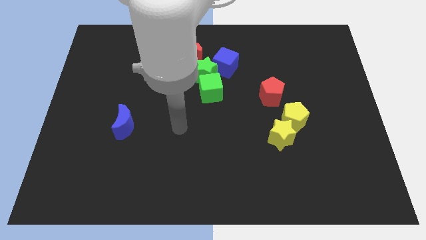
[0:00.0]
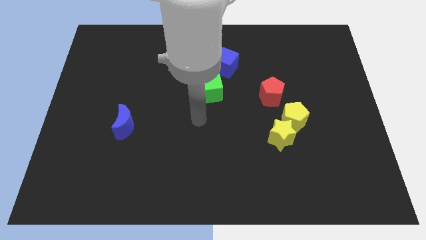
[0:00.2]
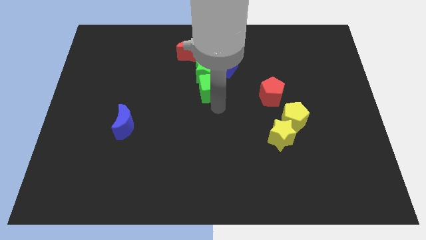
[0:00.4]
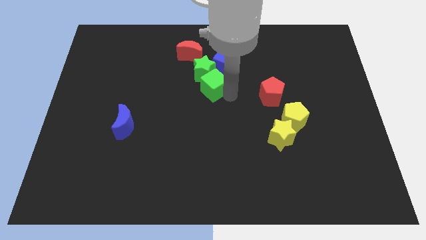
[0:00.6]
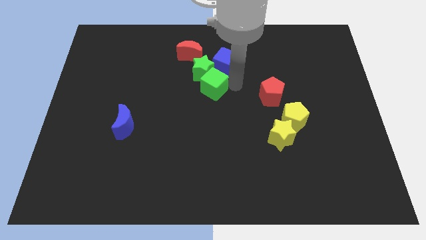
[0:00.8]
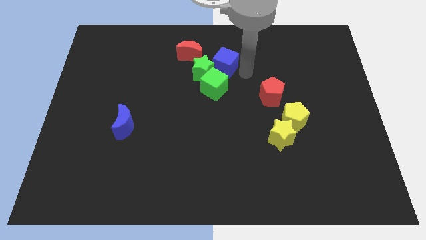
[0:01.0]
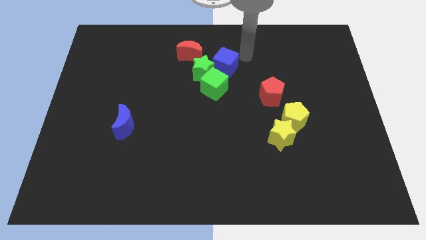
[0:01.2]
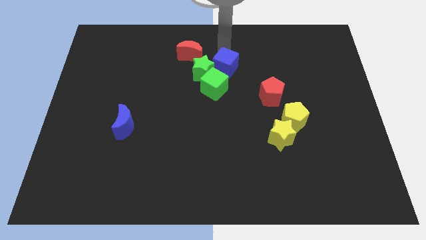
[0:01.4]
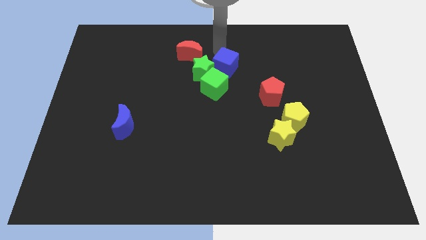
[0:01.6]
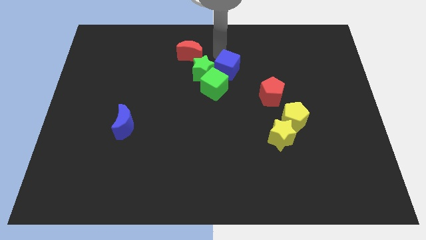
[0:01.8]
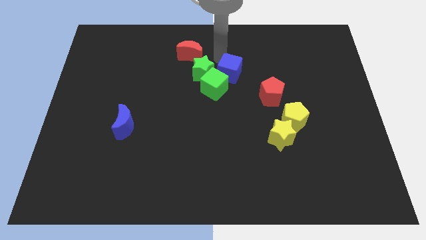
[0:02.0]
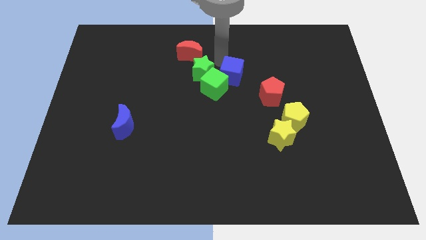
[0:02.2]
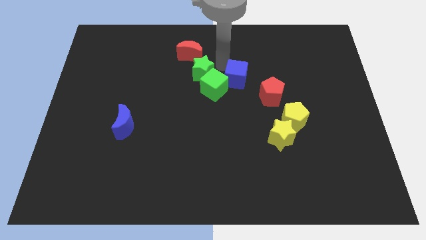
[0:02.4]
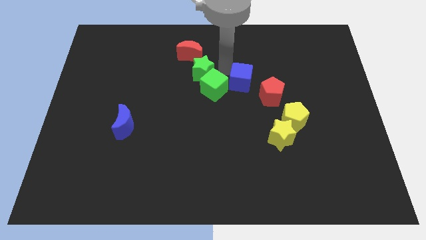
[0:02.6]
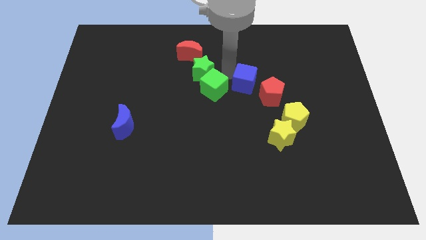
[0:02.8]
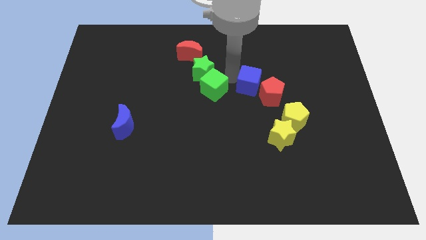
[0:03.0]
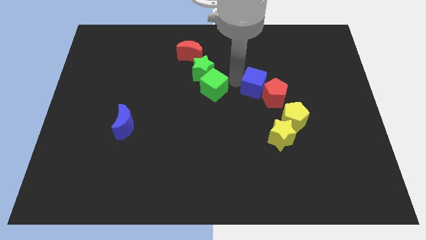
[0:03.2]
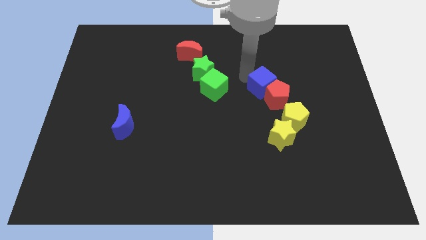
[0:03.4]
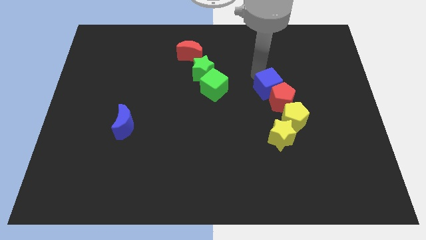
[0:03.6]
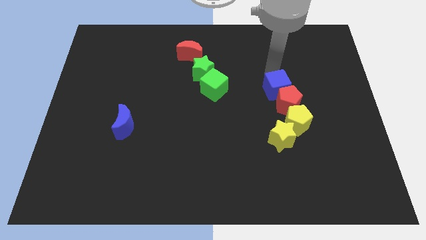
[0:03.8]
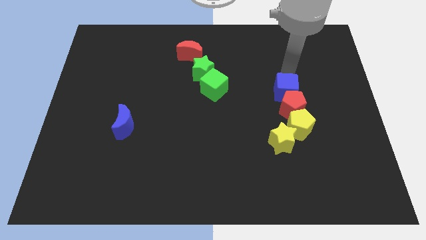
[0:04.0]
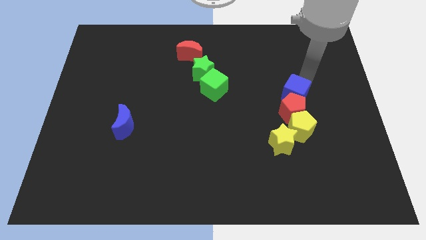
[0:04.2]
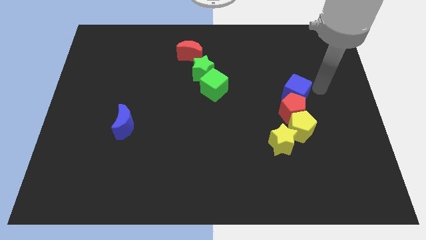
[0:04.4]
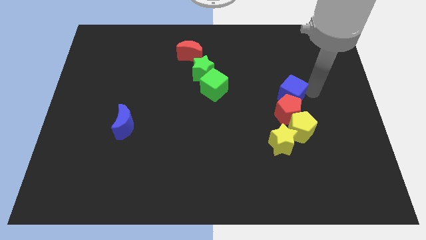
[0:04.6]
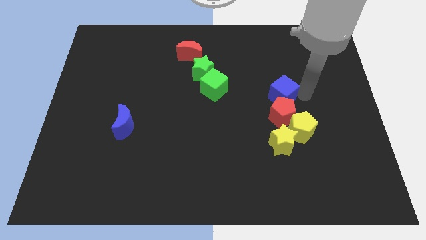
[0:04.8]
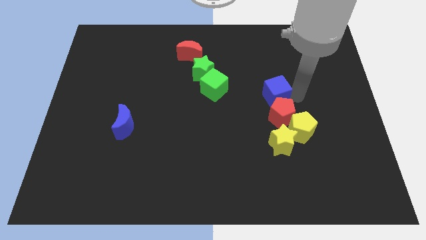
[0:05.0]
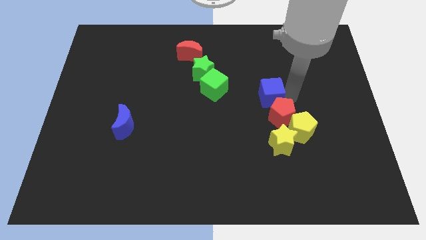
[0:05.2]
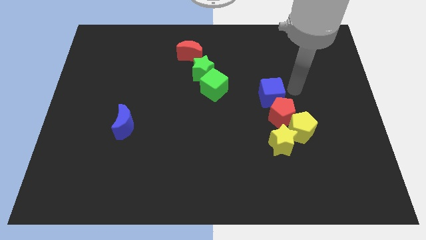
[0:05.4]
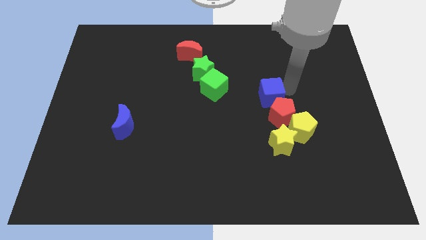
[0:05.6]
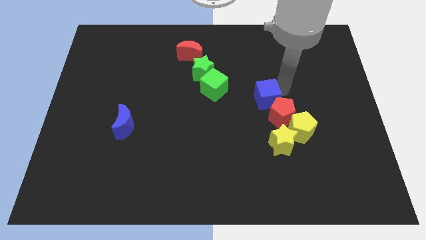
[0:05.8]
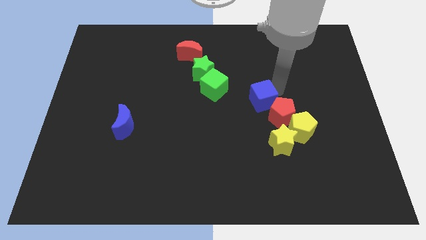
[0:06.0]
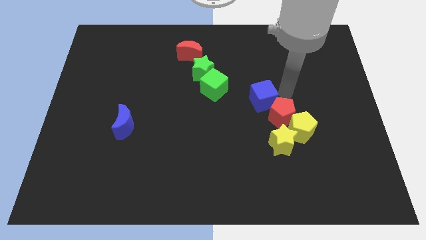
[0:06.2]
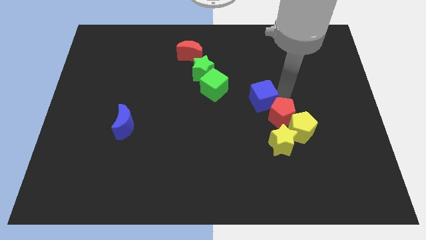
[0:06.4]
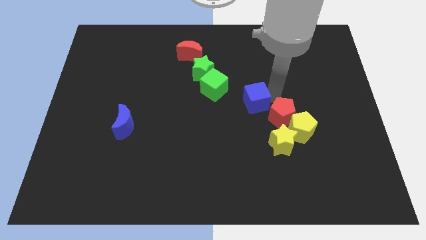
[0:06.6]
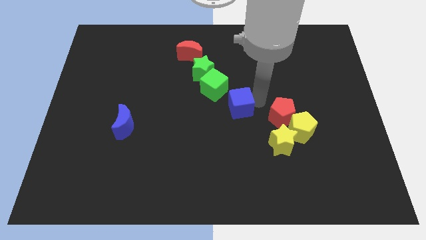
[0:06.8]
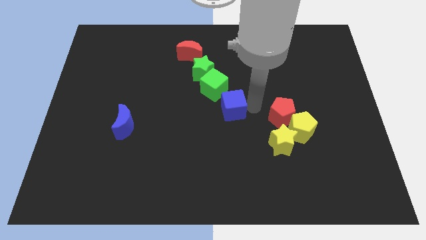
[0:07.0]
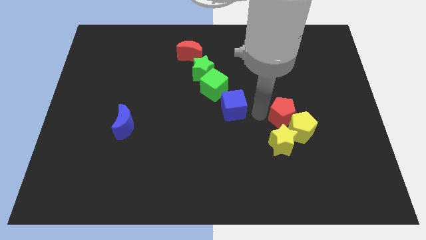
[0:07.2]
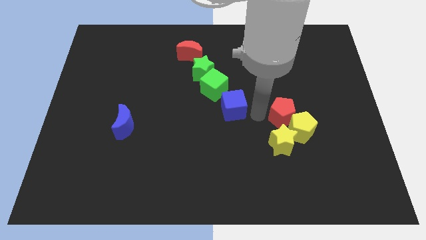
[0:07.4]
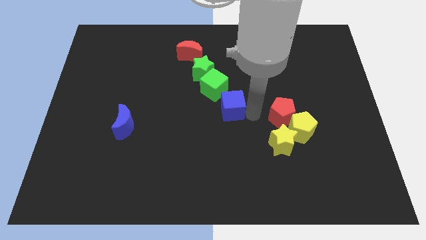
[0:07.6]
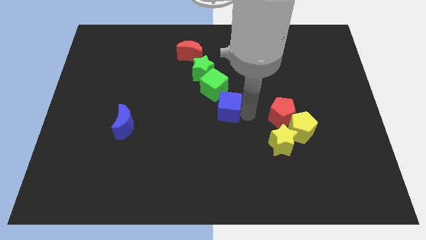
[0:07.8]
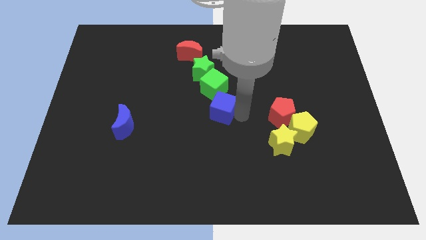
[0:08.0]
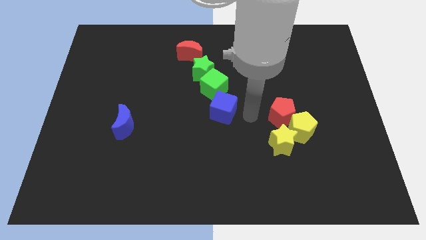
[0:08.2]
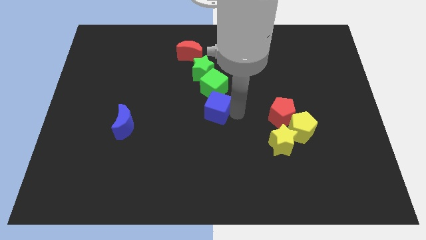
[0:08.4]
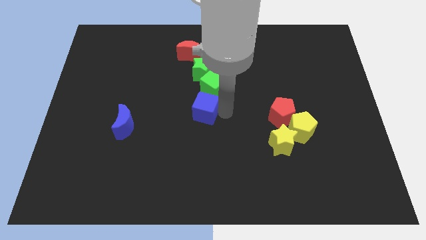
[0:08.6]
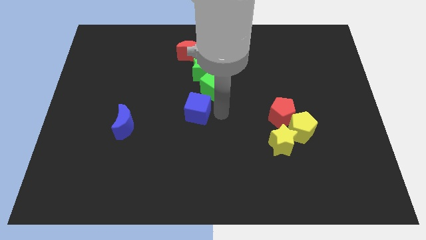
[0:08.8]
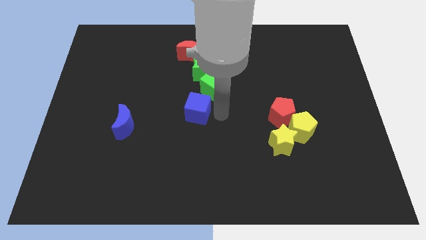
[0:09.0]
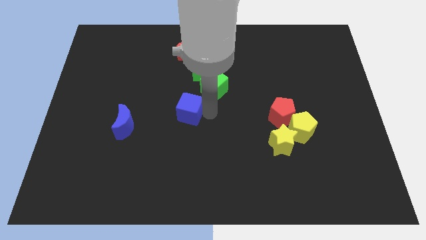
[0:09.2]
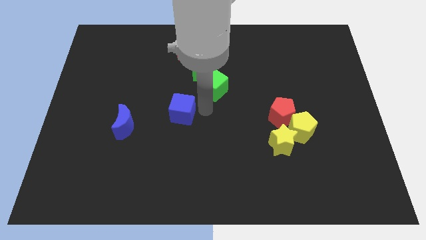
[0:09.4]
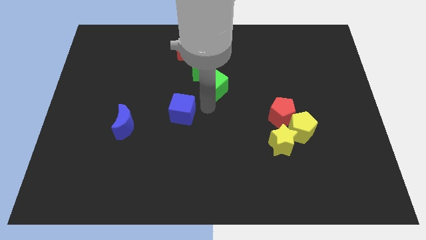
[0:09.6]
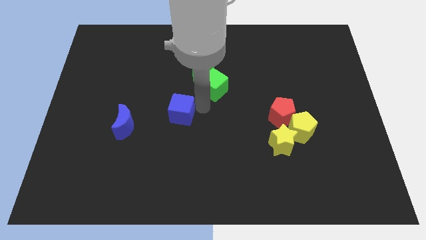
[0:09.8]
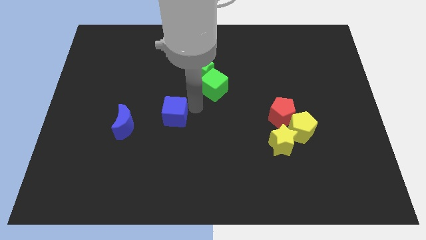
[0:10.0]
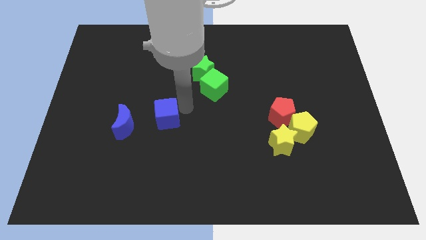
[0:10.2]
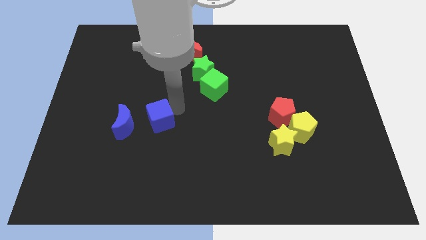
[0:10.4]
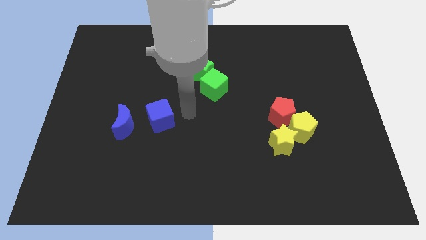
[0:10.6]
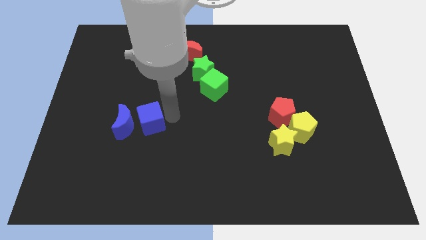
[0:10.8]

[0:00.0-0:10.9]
slide the blue cube next to the blue moon

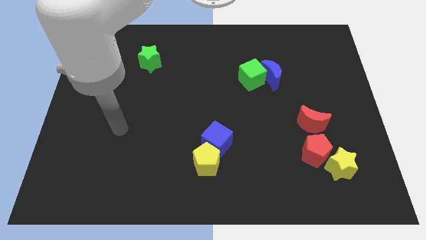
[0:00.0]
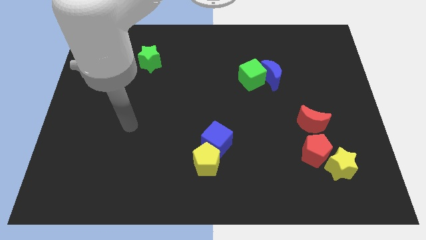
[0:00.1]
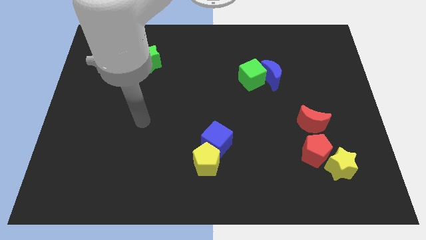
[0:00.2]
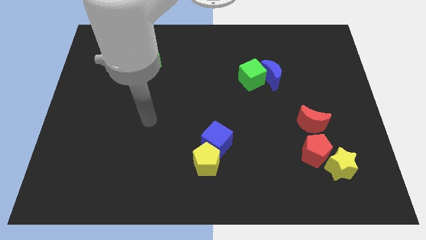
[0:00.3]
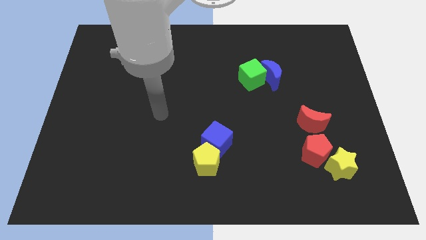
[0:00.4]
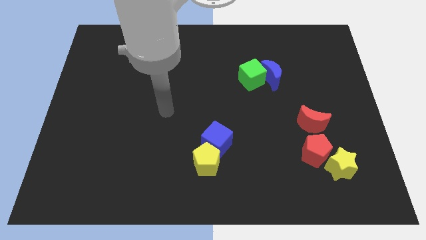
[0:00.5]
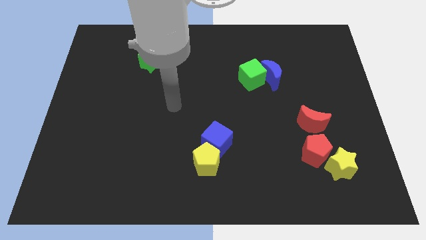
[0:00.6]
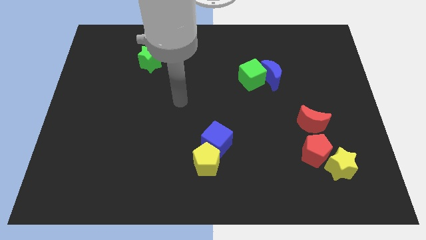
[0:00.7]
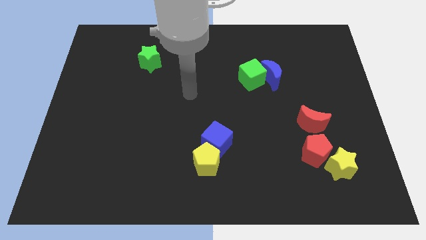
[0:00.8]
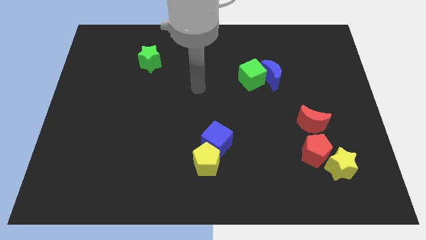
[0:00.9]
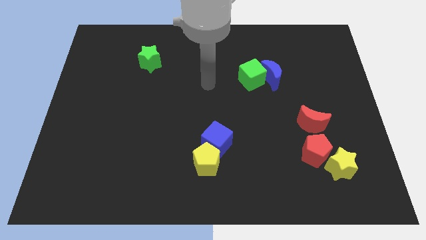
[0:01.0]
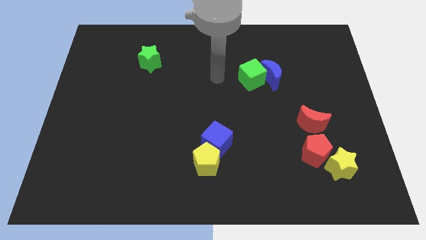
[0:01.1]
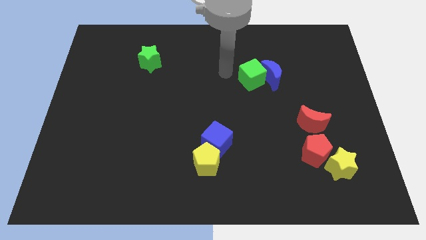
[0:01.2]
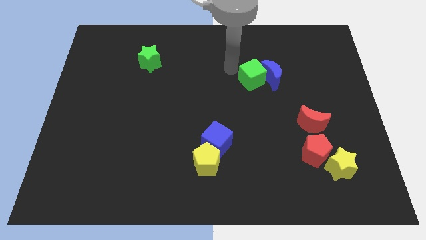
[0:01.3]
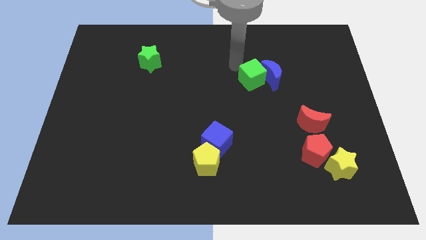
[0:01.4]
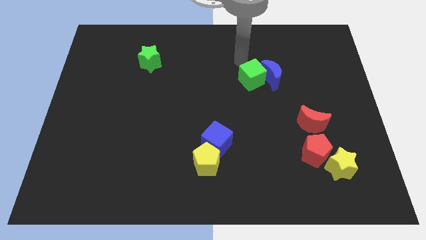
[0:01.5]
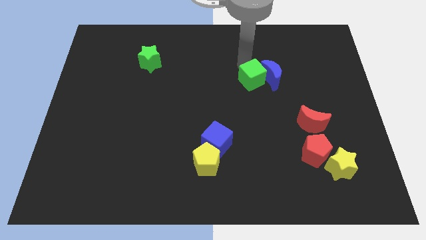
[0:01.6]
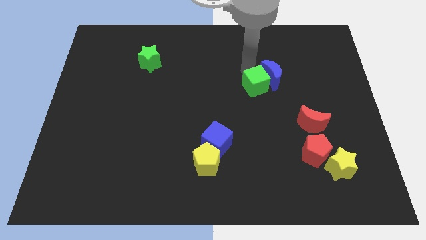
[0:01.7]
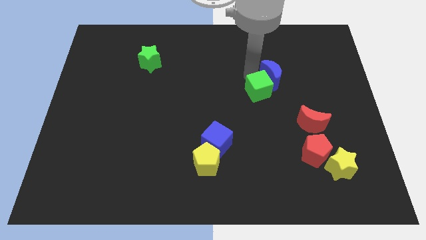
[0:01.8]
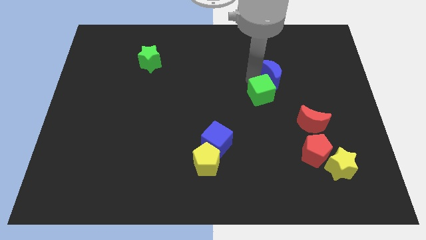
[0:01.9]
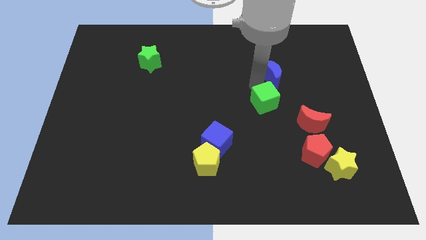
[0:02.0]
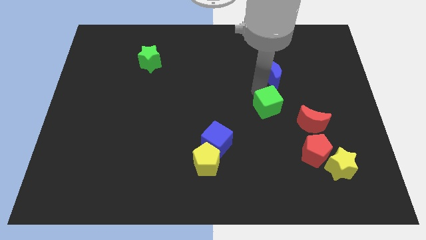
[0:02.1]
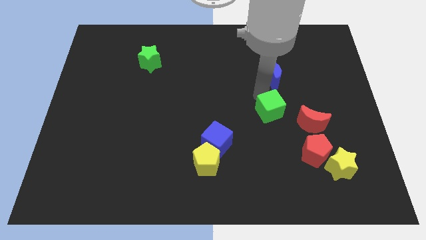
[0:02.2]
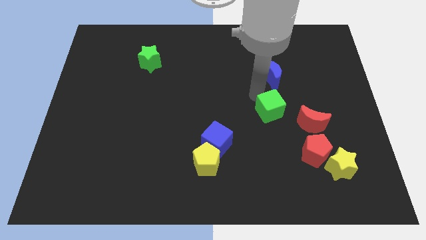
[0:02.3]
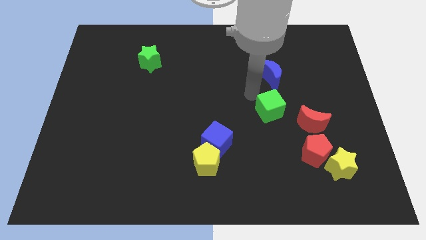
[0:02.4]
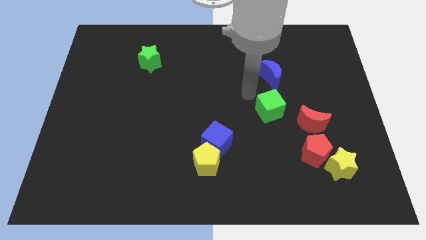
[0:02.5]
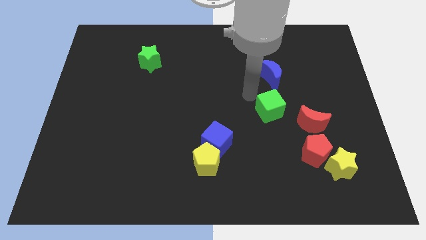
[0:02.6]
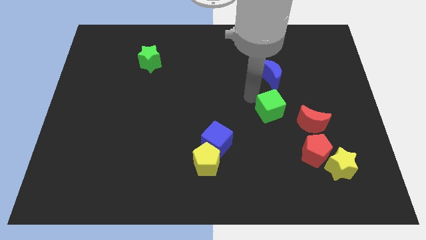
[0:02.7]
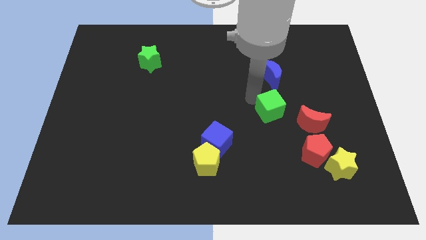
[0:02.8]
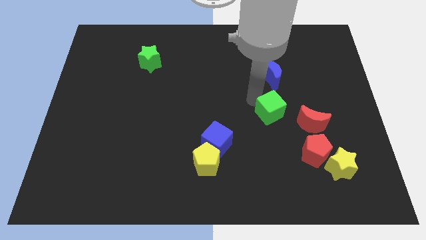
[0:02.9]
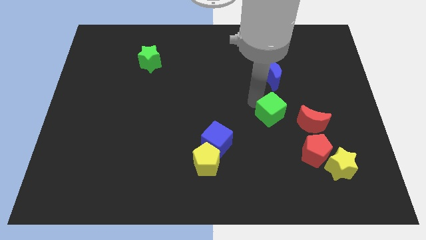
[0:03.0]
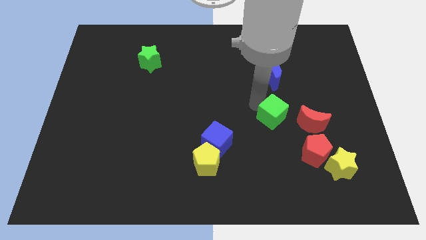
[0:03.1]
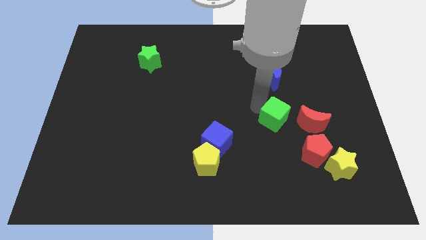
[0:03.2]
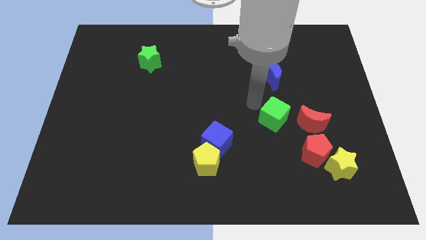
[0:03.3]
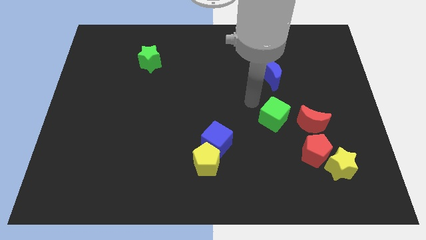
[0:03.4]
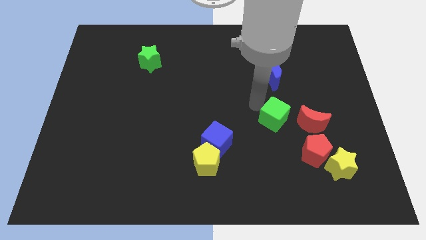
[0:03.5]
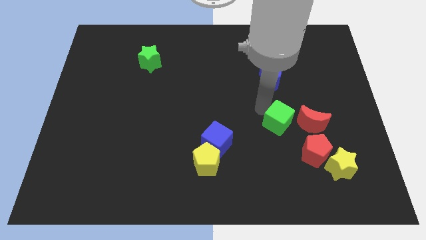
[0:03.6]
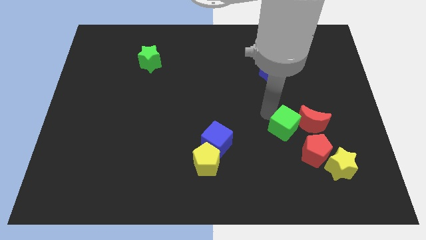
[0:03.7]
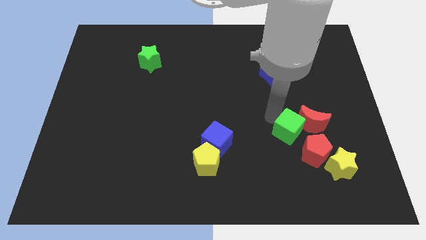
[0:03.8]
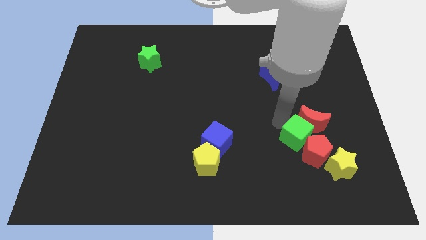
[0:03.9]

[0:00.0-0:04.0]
move the green cube next to the red pentagon
